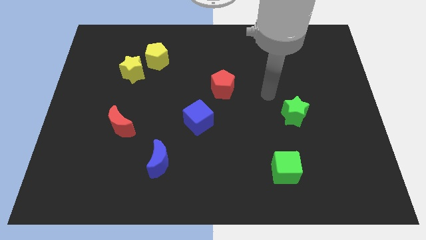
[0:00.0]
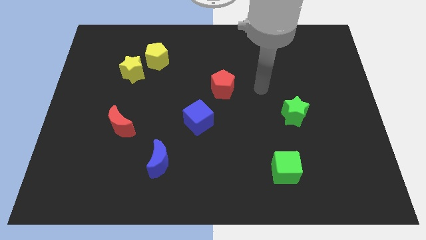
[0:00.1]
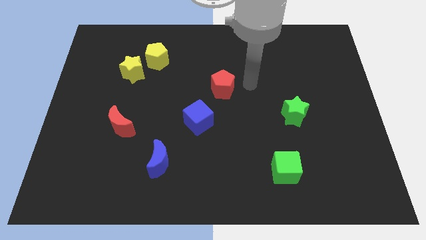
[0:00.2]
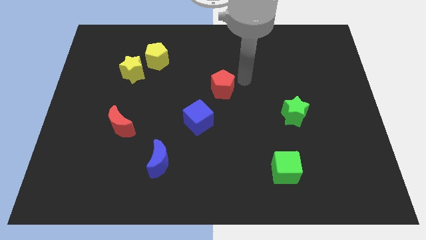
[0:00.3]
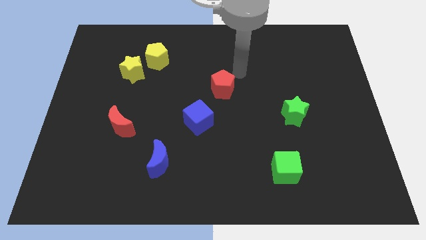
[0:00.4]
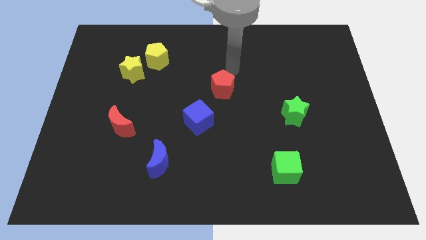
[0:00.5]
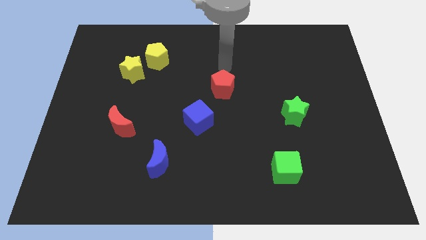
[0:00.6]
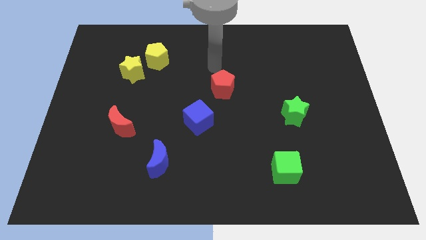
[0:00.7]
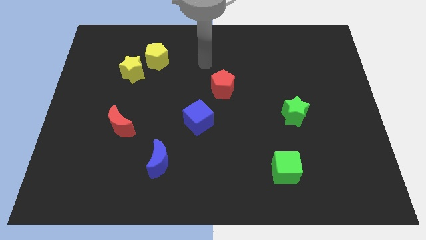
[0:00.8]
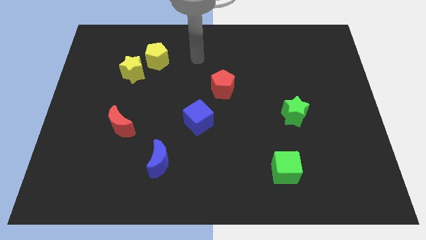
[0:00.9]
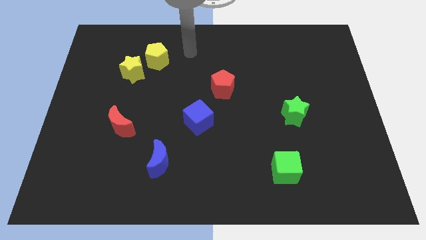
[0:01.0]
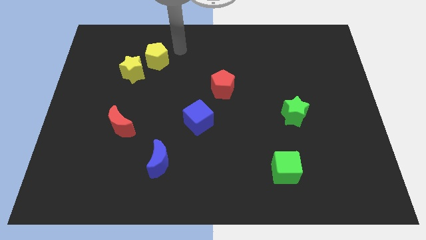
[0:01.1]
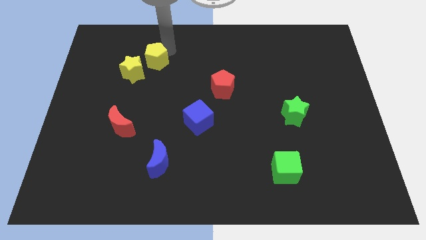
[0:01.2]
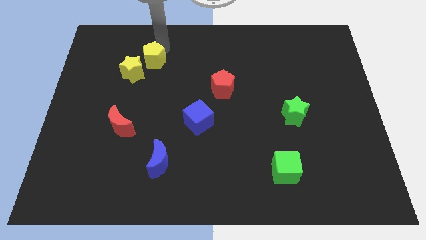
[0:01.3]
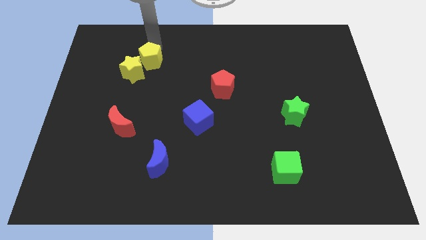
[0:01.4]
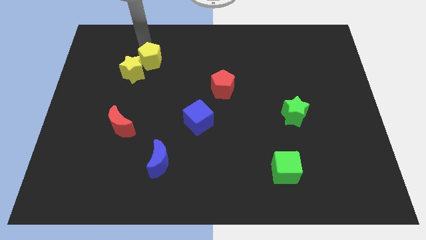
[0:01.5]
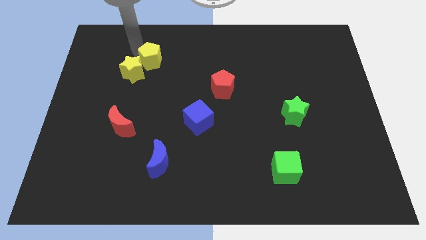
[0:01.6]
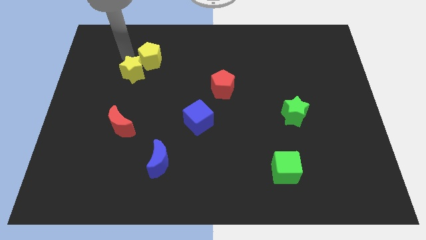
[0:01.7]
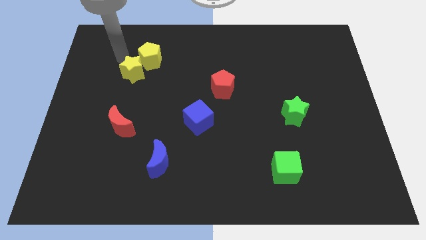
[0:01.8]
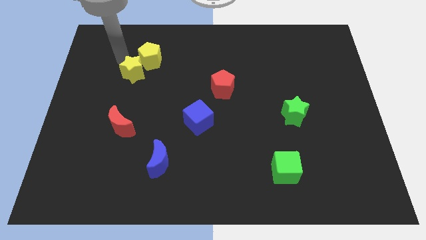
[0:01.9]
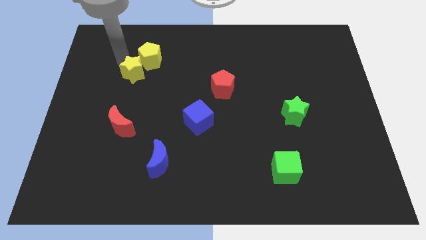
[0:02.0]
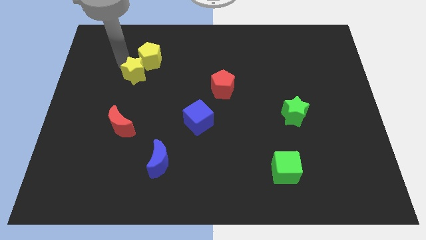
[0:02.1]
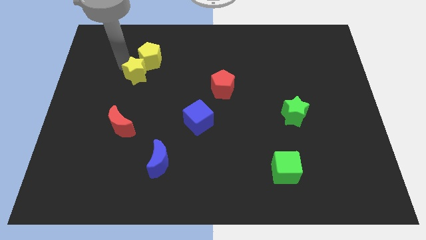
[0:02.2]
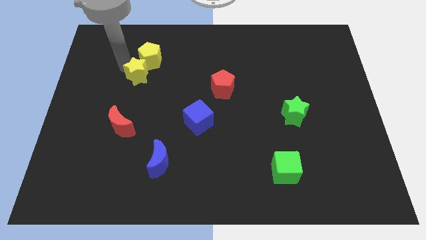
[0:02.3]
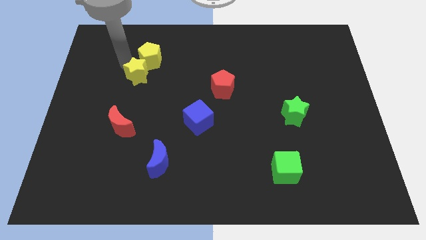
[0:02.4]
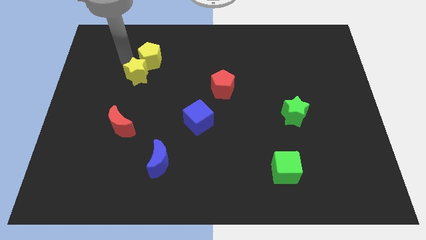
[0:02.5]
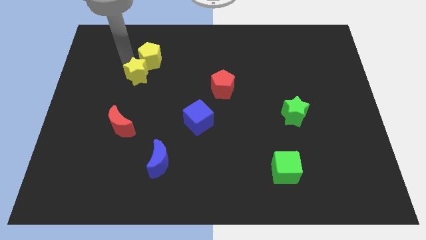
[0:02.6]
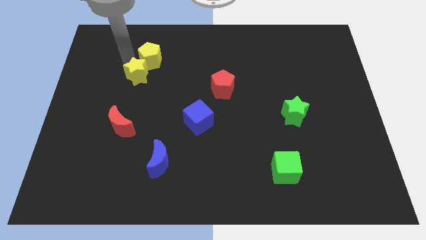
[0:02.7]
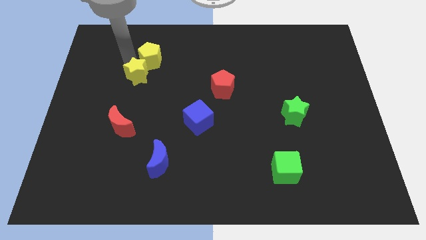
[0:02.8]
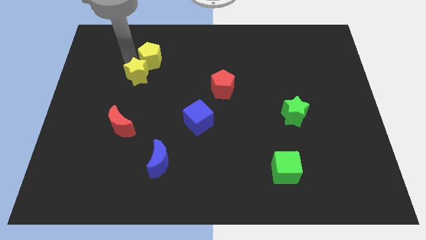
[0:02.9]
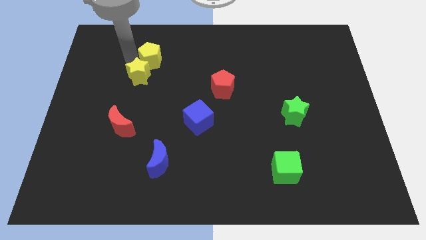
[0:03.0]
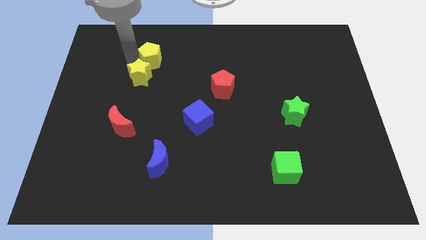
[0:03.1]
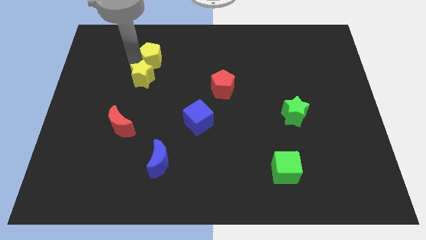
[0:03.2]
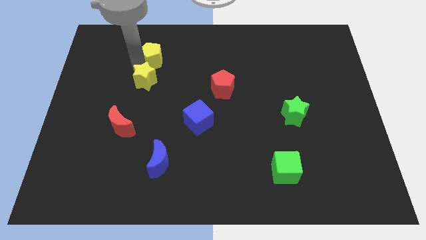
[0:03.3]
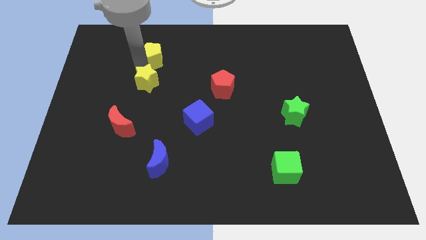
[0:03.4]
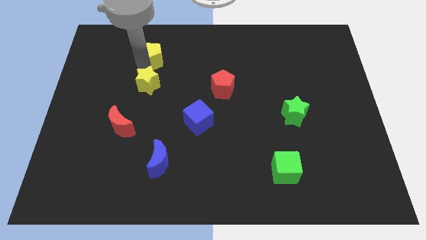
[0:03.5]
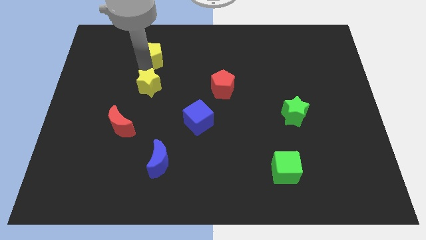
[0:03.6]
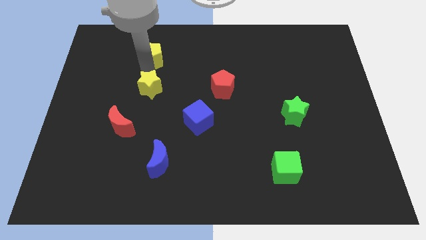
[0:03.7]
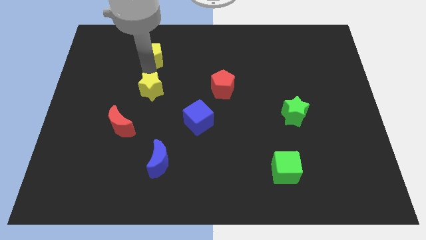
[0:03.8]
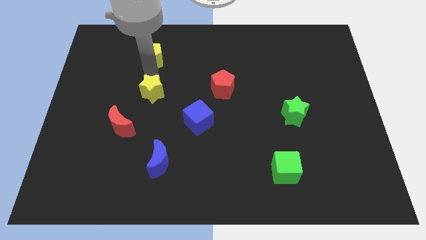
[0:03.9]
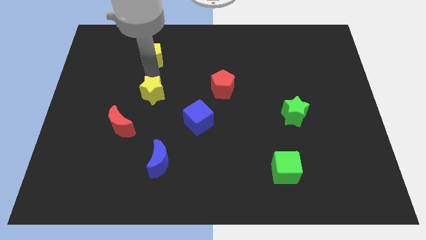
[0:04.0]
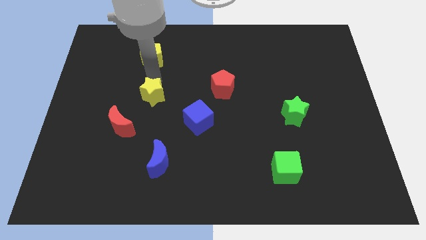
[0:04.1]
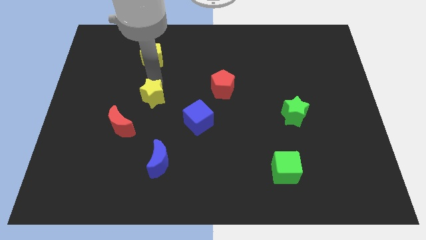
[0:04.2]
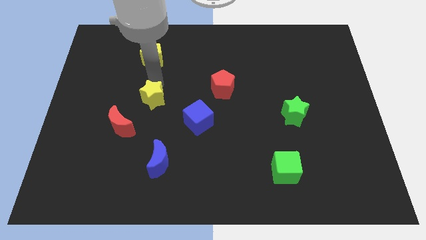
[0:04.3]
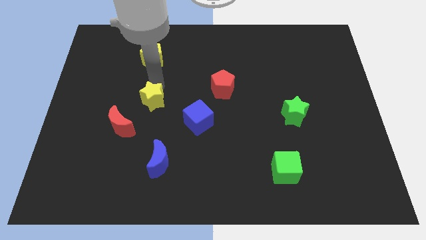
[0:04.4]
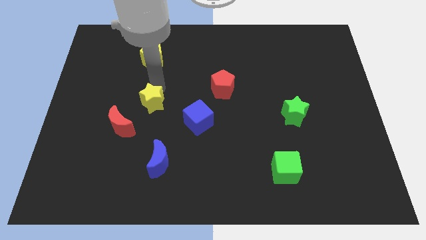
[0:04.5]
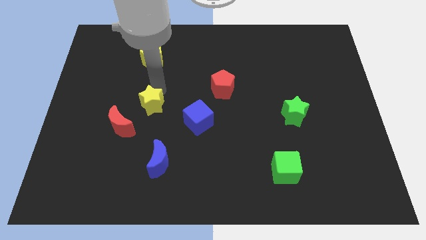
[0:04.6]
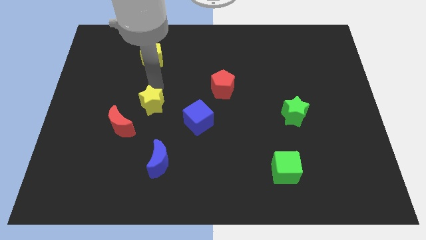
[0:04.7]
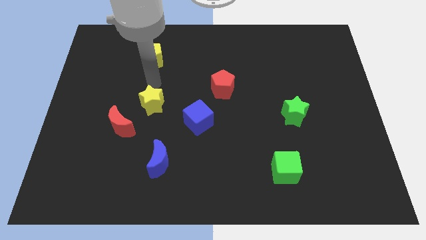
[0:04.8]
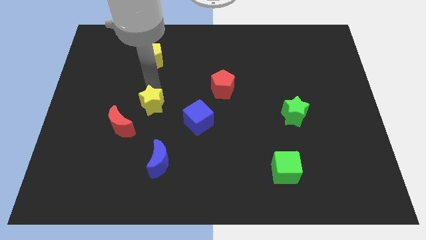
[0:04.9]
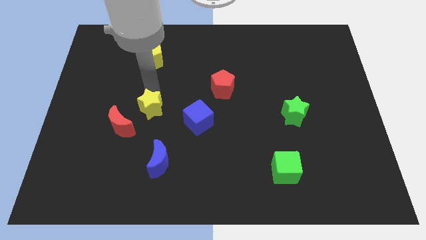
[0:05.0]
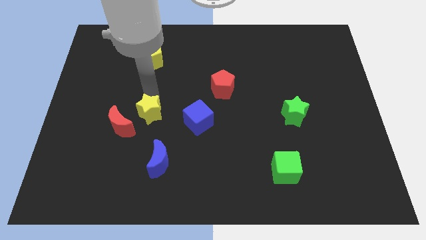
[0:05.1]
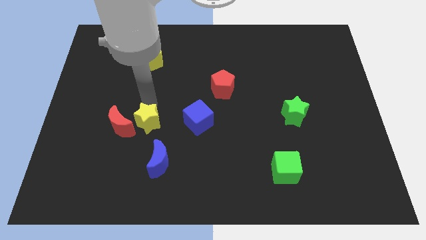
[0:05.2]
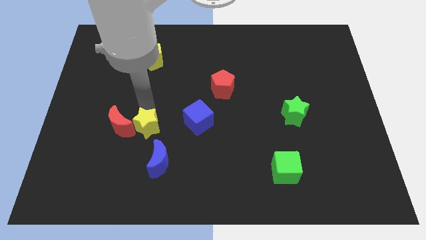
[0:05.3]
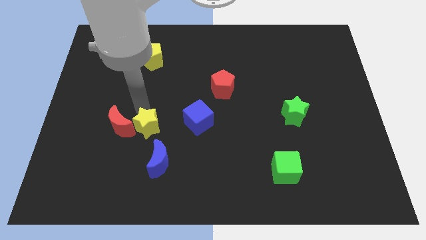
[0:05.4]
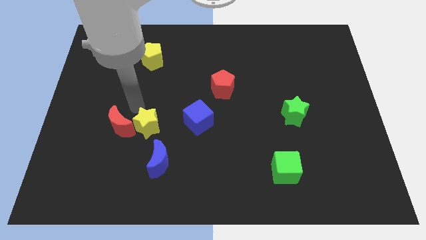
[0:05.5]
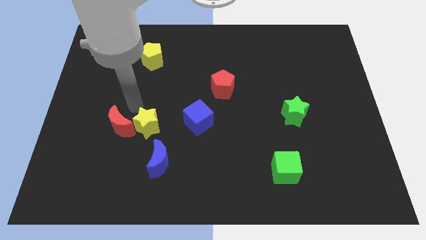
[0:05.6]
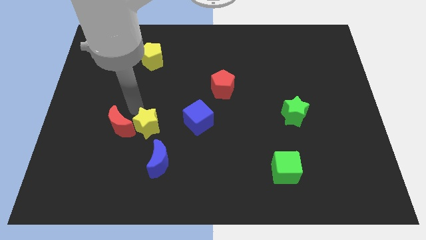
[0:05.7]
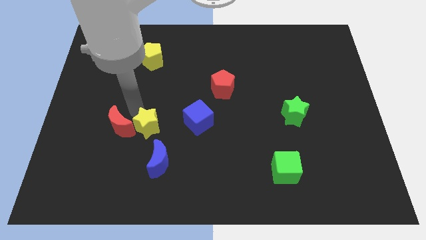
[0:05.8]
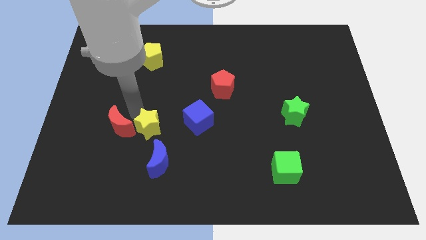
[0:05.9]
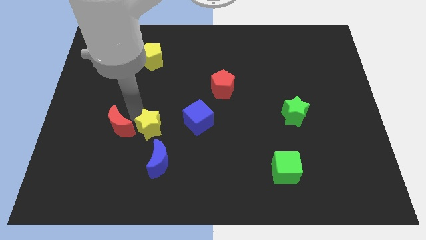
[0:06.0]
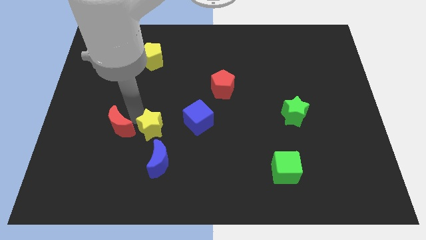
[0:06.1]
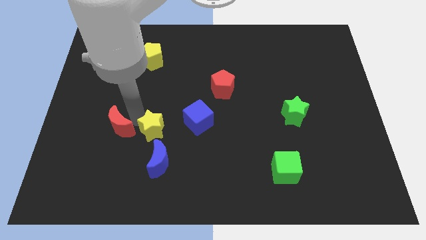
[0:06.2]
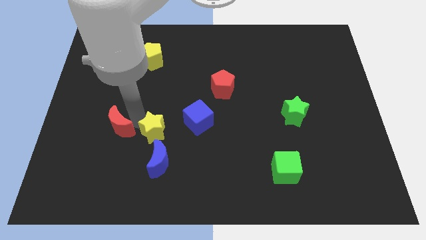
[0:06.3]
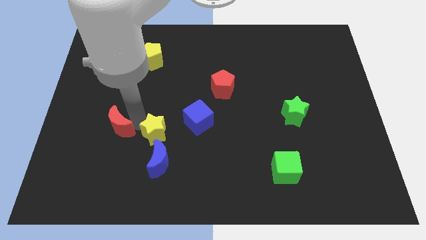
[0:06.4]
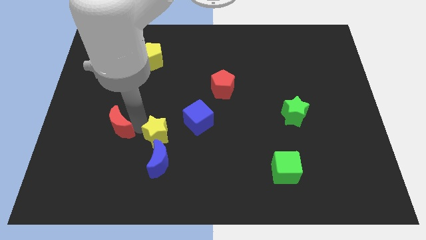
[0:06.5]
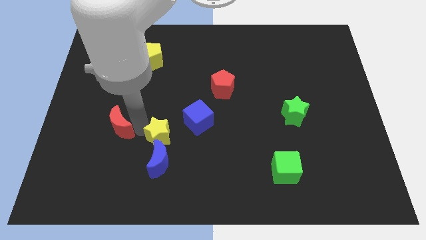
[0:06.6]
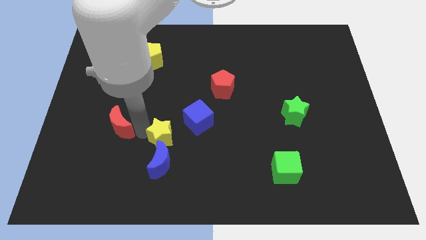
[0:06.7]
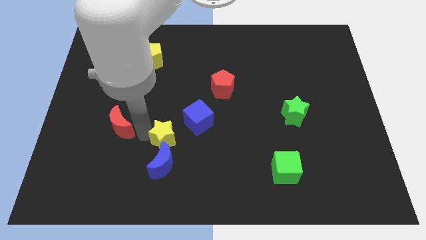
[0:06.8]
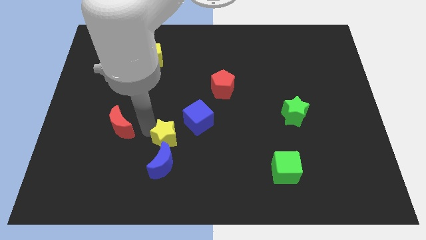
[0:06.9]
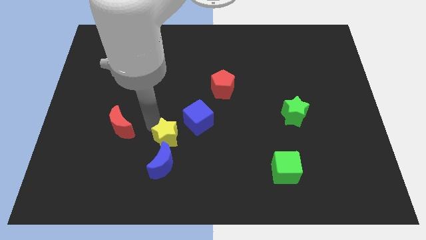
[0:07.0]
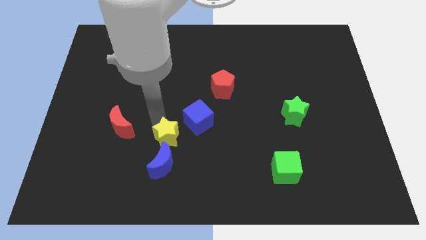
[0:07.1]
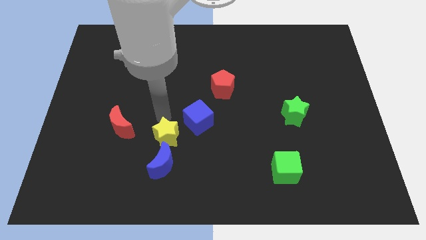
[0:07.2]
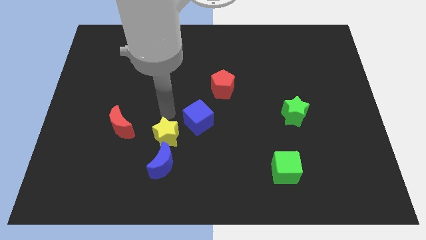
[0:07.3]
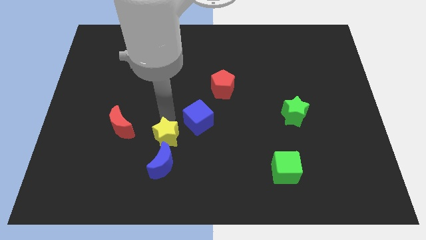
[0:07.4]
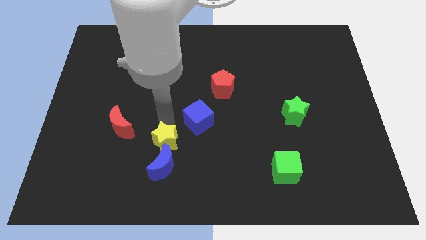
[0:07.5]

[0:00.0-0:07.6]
put the yellow star next to the blue moon
